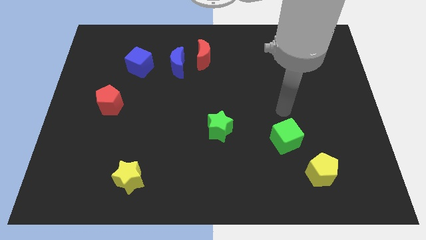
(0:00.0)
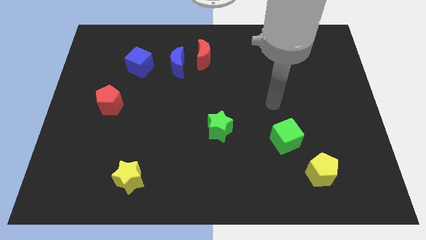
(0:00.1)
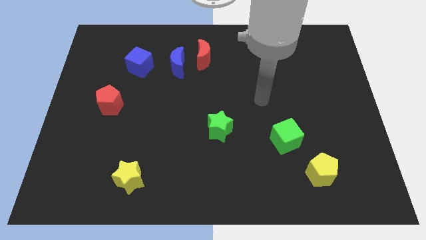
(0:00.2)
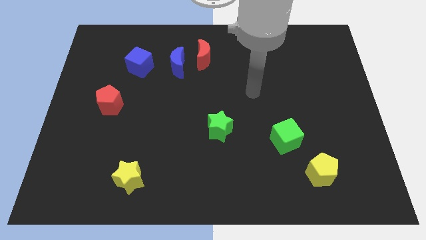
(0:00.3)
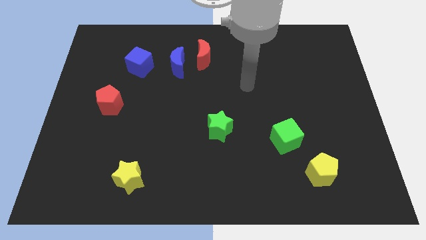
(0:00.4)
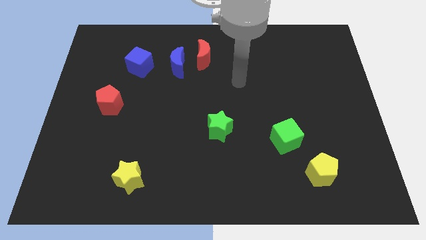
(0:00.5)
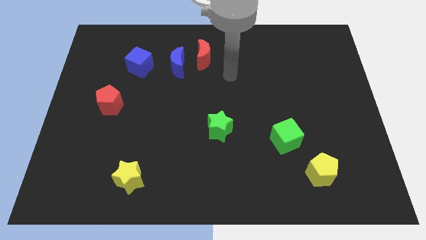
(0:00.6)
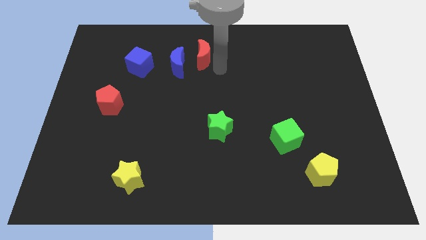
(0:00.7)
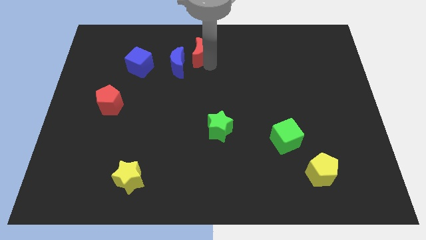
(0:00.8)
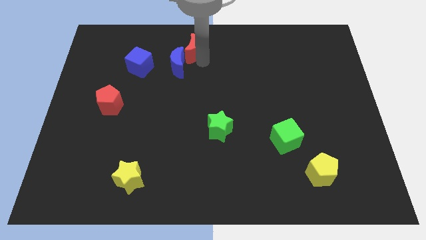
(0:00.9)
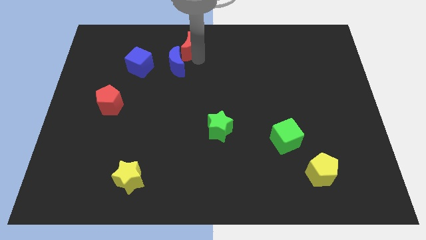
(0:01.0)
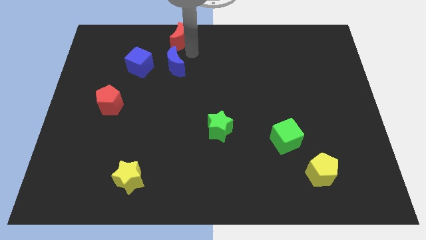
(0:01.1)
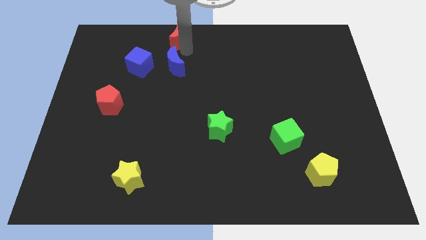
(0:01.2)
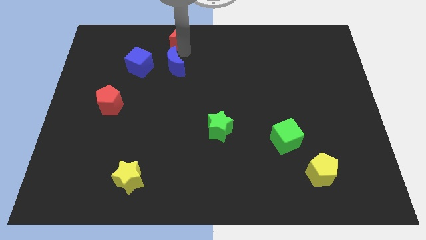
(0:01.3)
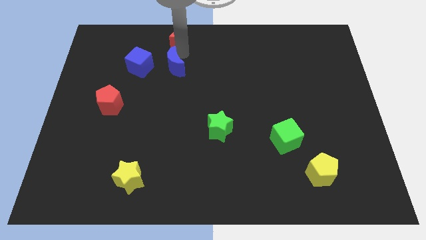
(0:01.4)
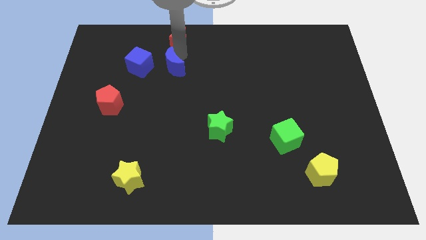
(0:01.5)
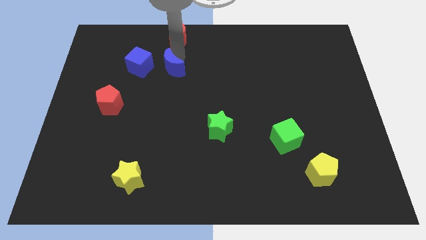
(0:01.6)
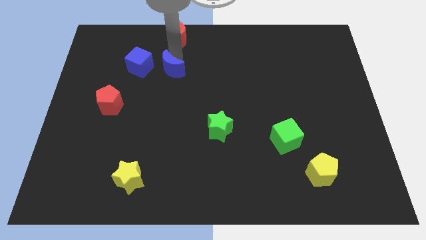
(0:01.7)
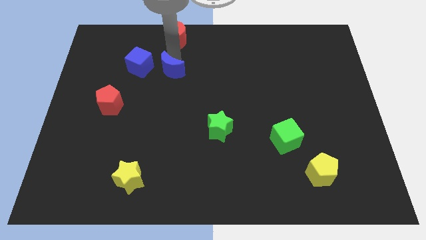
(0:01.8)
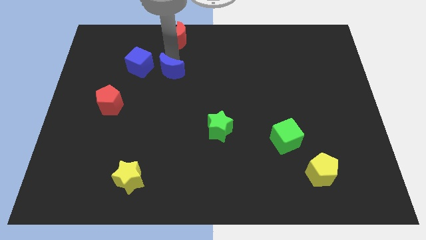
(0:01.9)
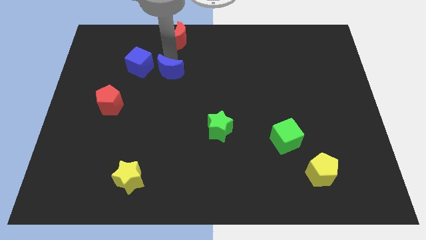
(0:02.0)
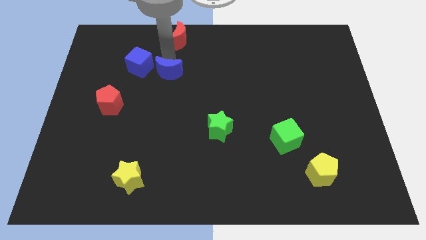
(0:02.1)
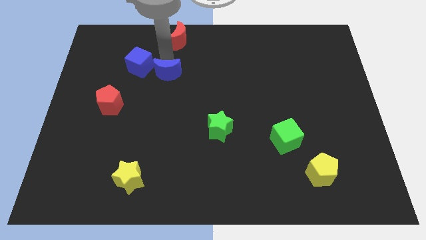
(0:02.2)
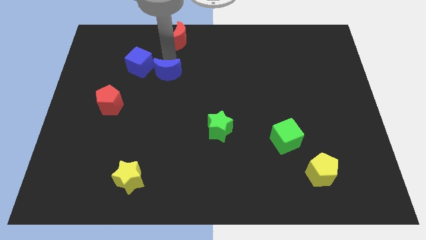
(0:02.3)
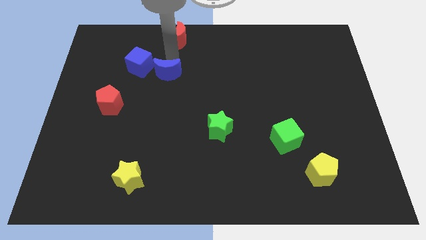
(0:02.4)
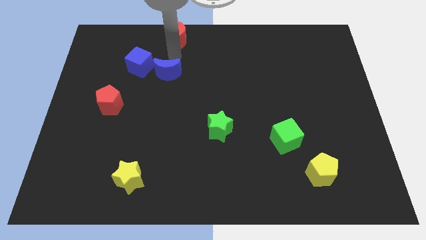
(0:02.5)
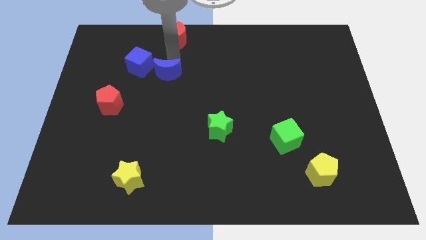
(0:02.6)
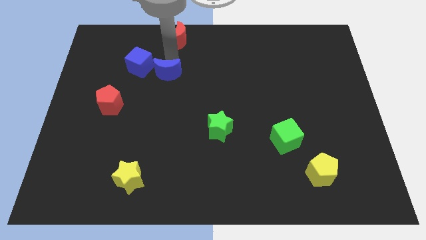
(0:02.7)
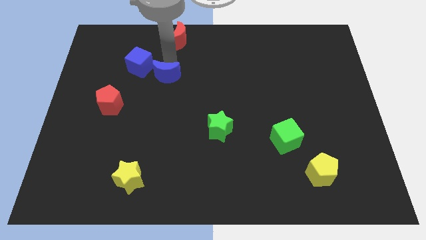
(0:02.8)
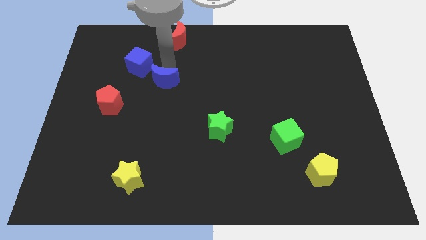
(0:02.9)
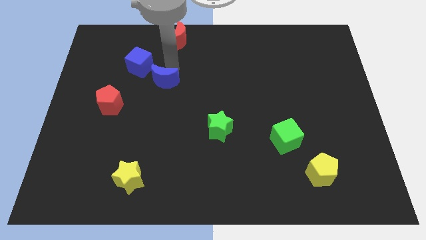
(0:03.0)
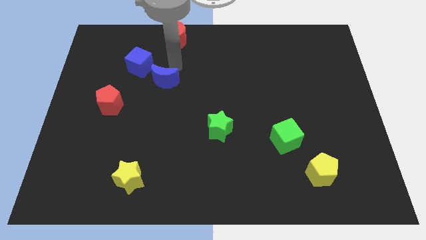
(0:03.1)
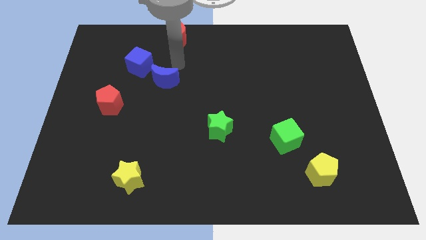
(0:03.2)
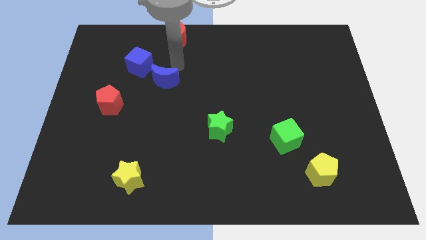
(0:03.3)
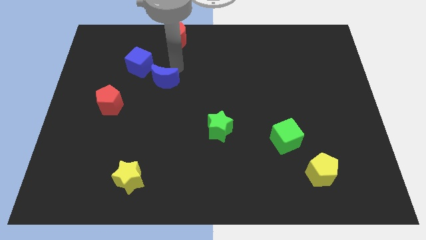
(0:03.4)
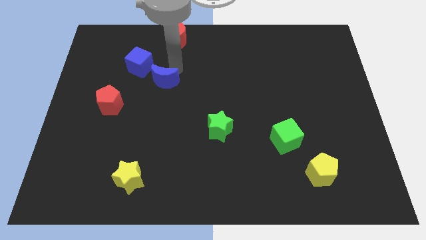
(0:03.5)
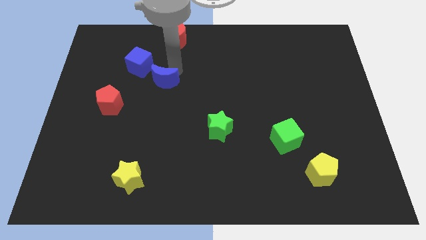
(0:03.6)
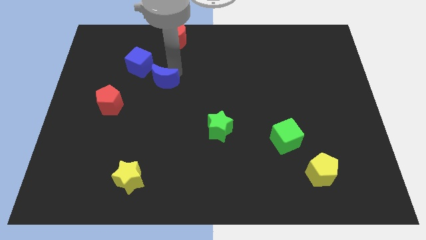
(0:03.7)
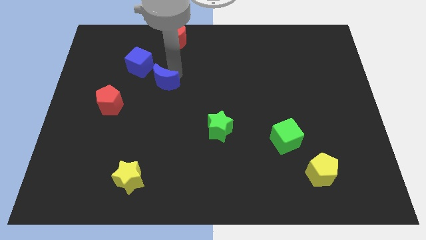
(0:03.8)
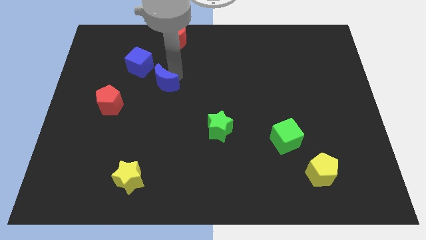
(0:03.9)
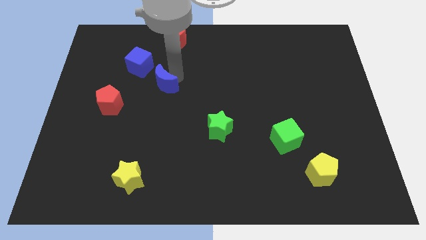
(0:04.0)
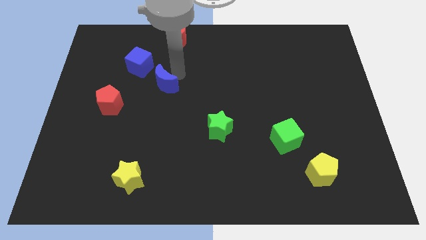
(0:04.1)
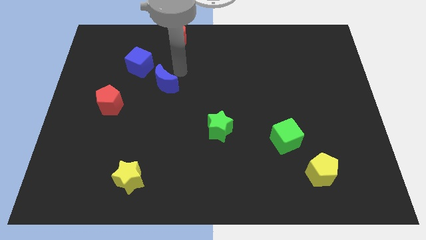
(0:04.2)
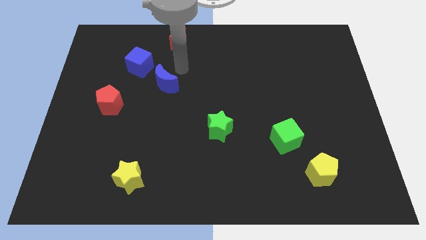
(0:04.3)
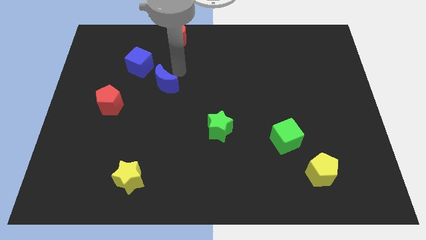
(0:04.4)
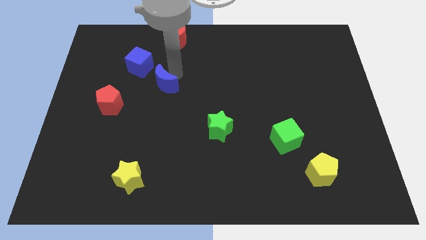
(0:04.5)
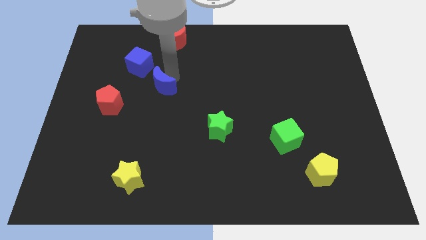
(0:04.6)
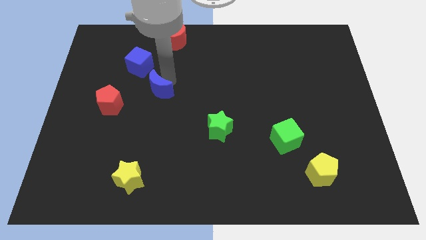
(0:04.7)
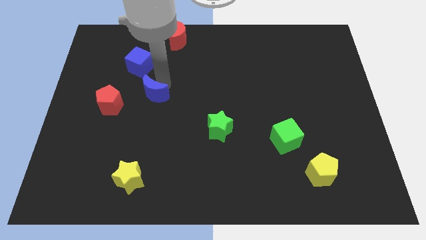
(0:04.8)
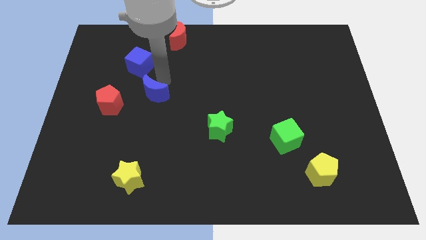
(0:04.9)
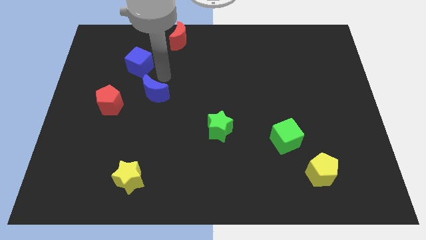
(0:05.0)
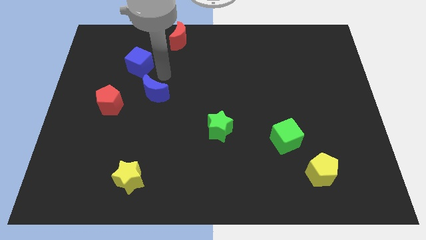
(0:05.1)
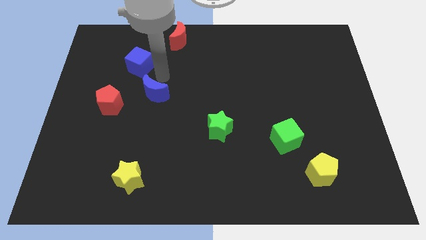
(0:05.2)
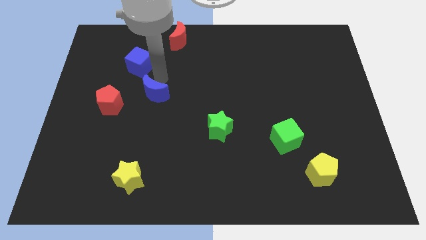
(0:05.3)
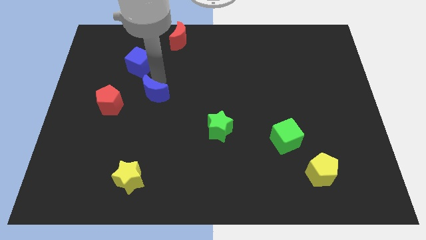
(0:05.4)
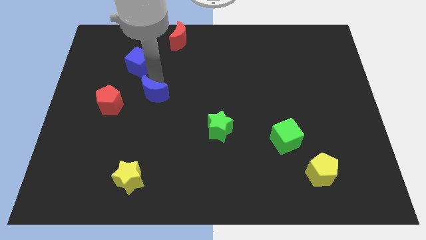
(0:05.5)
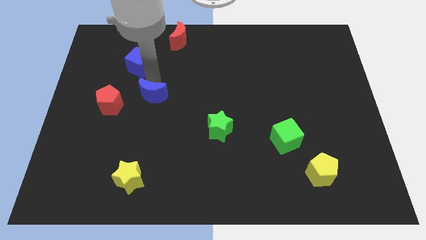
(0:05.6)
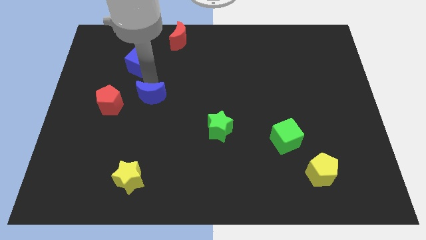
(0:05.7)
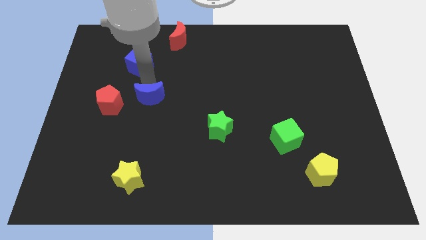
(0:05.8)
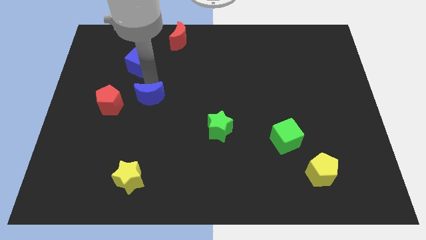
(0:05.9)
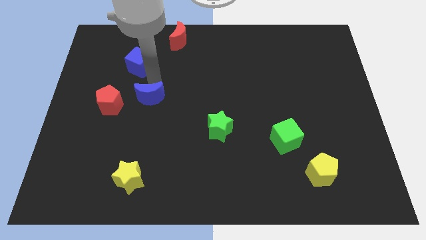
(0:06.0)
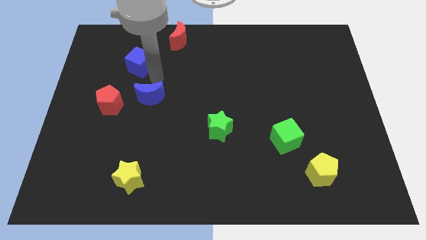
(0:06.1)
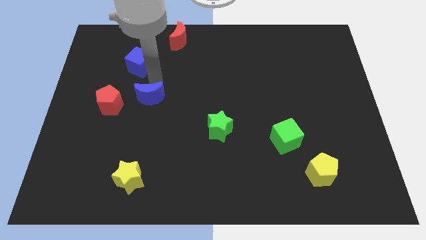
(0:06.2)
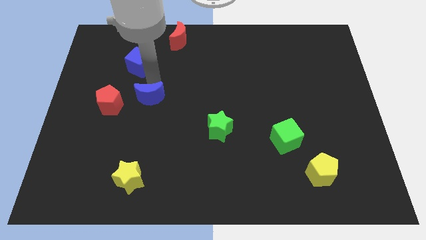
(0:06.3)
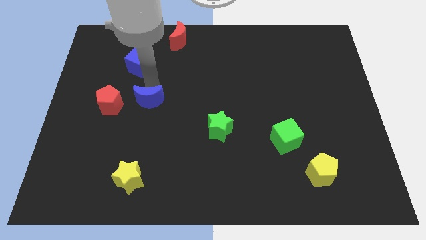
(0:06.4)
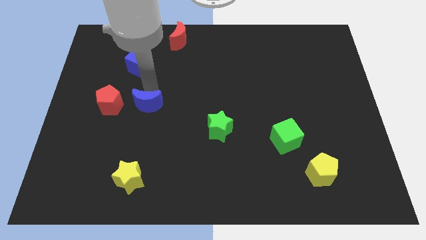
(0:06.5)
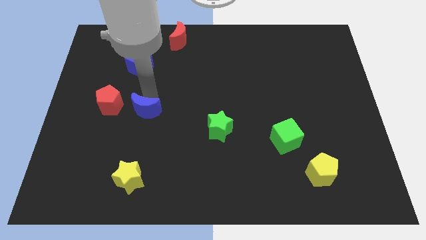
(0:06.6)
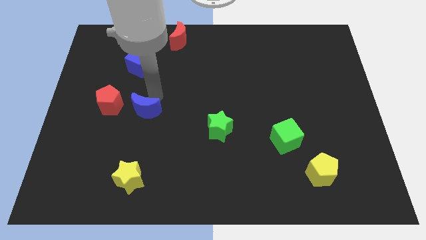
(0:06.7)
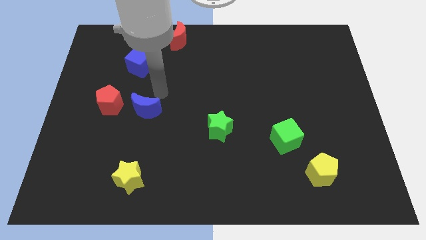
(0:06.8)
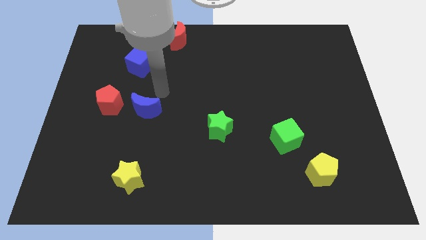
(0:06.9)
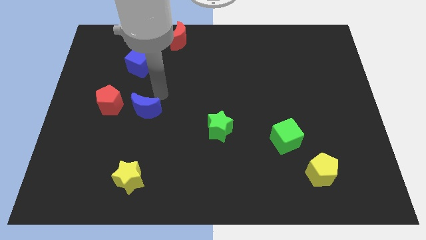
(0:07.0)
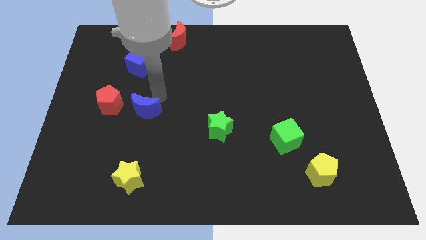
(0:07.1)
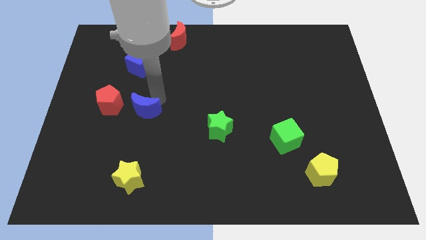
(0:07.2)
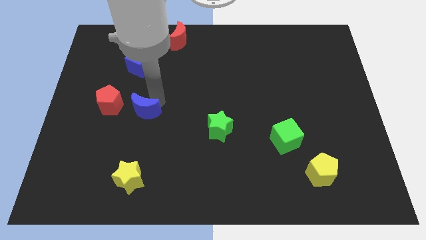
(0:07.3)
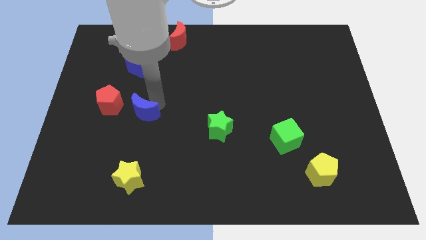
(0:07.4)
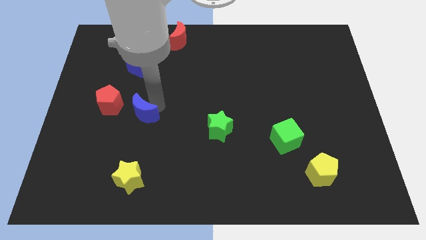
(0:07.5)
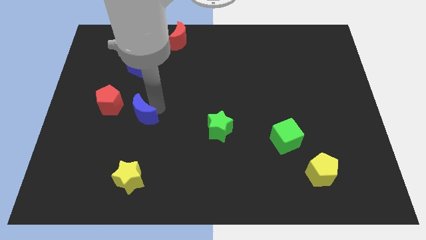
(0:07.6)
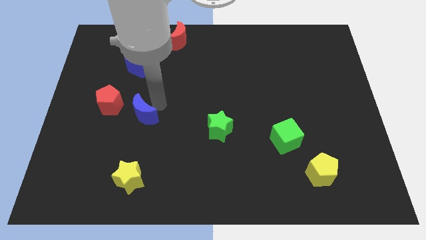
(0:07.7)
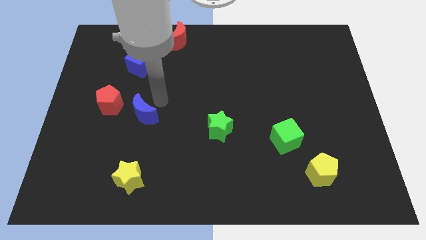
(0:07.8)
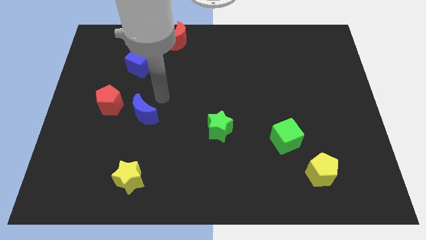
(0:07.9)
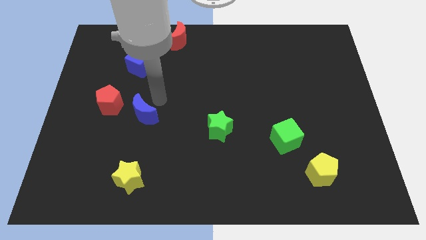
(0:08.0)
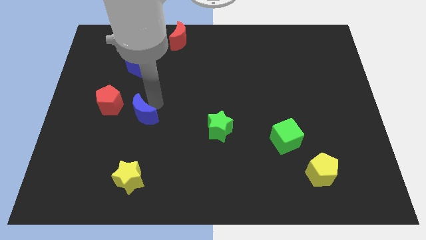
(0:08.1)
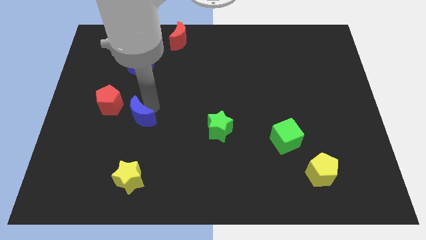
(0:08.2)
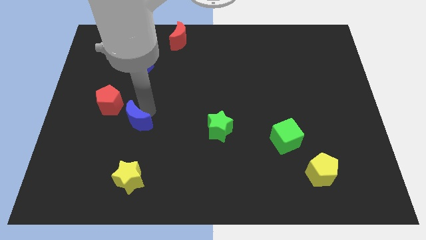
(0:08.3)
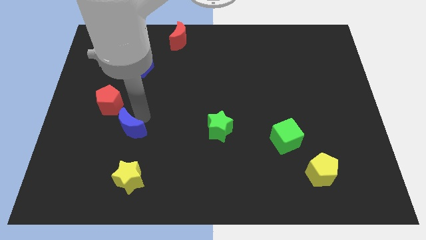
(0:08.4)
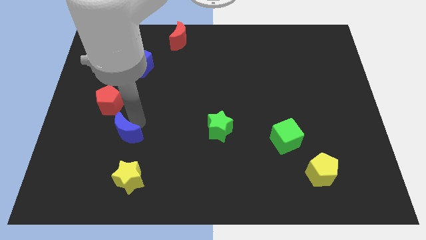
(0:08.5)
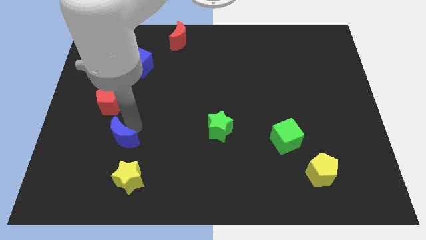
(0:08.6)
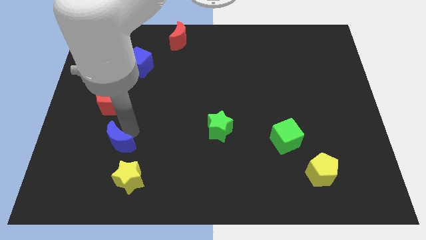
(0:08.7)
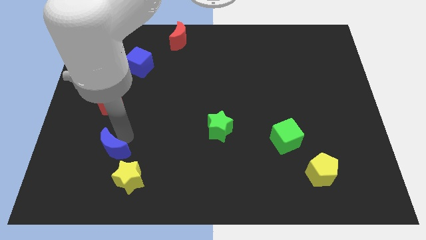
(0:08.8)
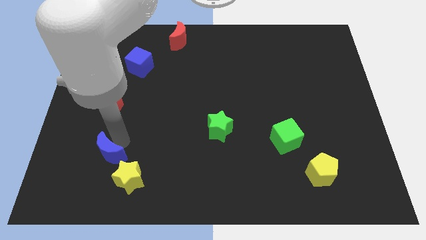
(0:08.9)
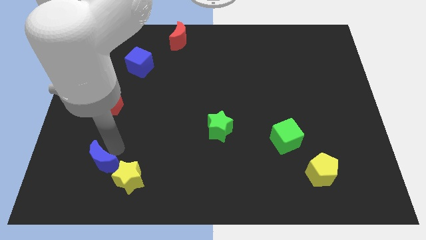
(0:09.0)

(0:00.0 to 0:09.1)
push the blue moon to the left of the yellow star
